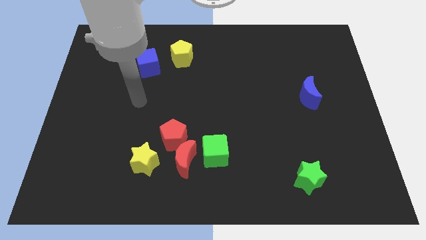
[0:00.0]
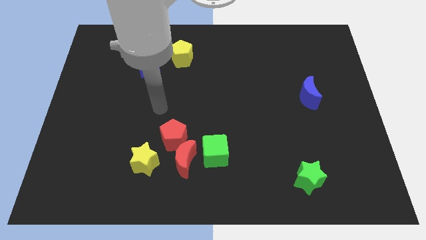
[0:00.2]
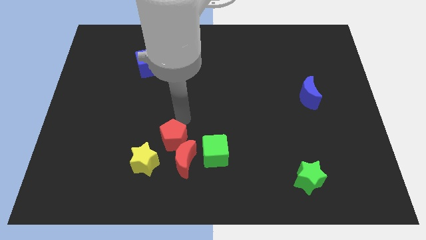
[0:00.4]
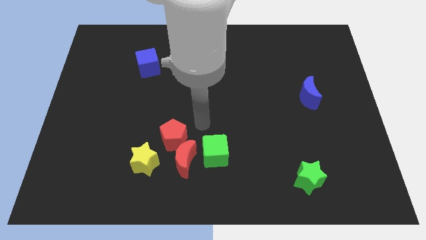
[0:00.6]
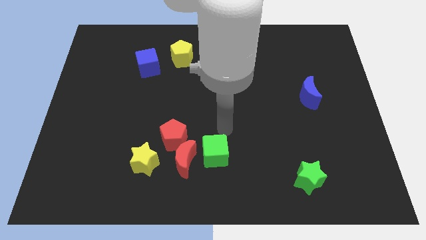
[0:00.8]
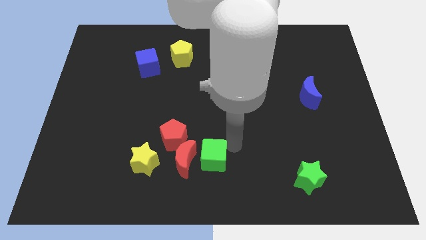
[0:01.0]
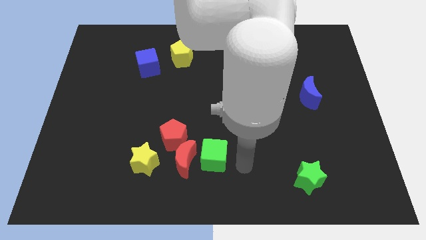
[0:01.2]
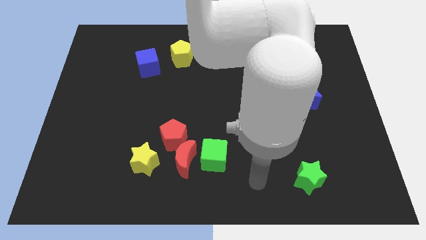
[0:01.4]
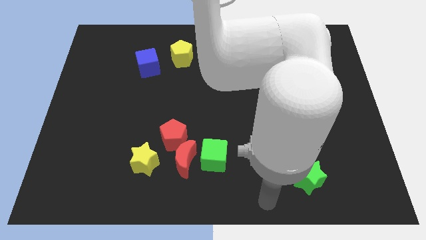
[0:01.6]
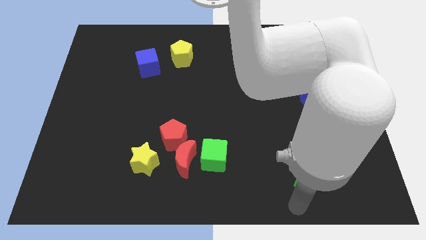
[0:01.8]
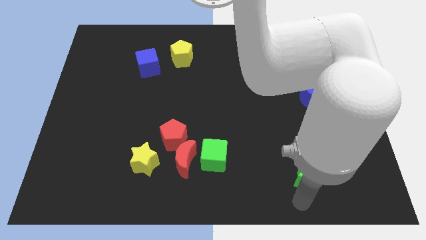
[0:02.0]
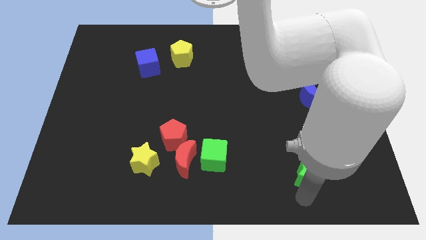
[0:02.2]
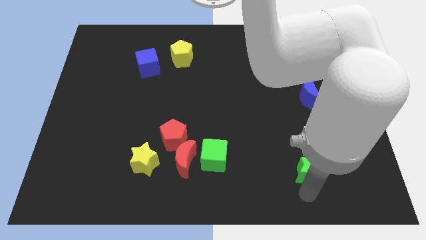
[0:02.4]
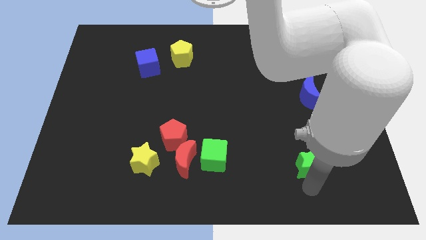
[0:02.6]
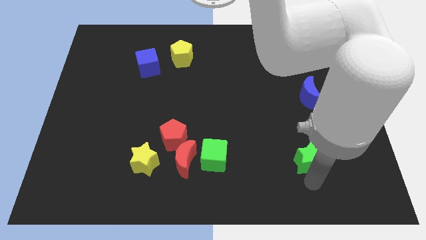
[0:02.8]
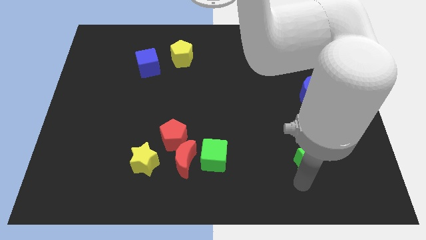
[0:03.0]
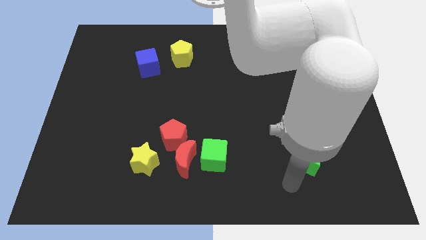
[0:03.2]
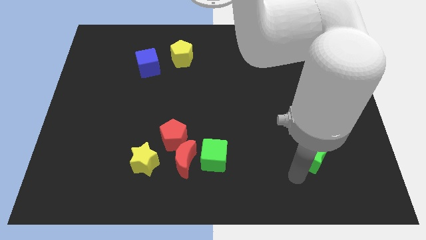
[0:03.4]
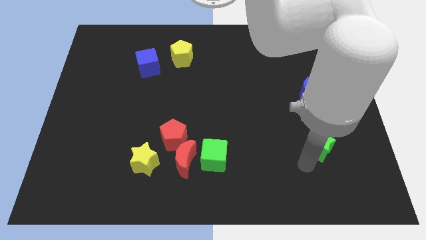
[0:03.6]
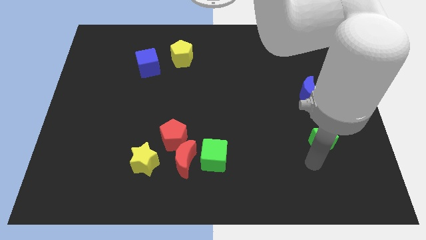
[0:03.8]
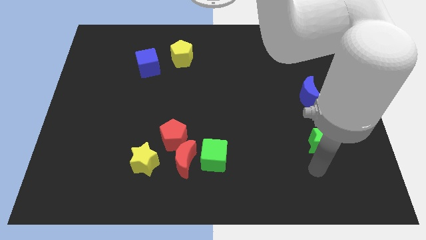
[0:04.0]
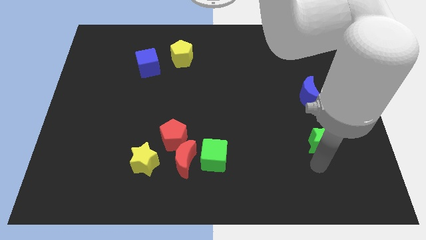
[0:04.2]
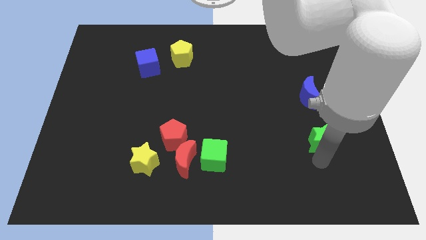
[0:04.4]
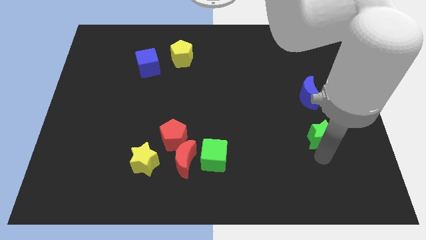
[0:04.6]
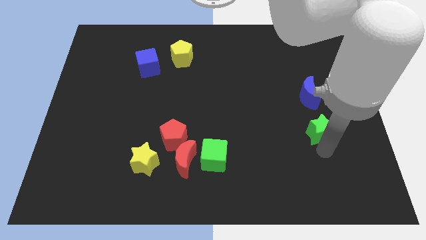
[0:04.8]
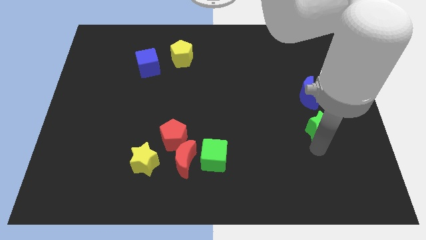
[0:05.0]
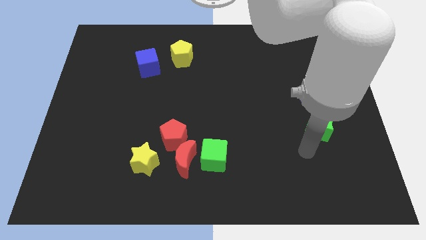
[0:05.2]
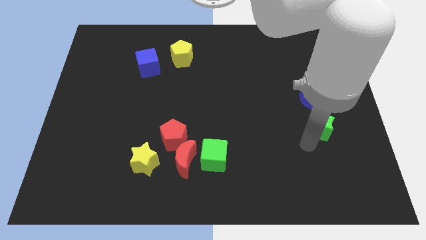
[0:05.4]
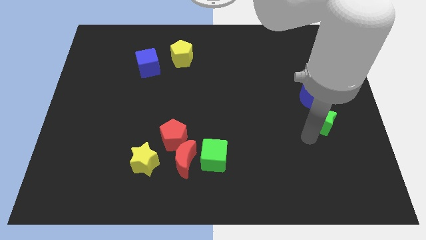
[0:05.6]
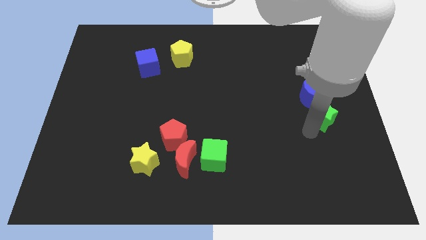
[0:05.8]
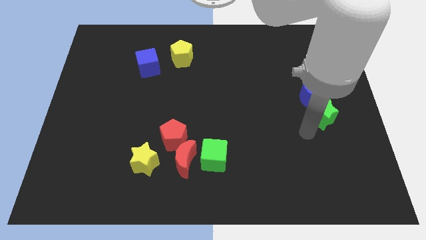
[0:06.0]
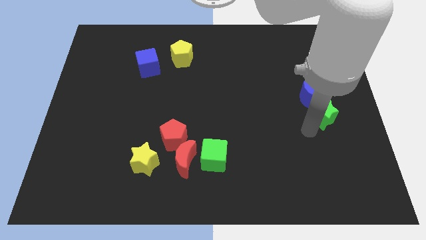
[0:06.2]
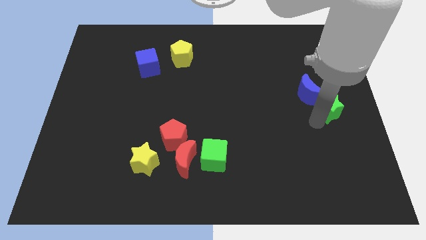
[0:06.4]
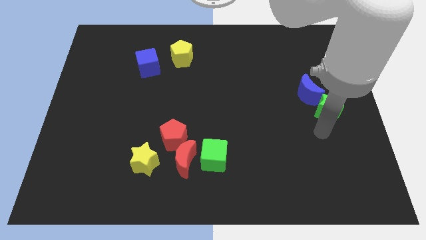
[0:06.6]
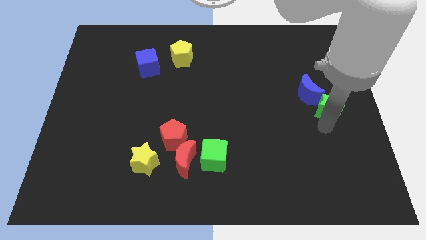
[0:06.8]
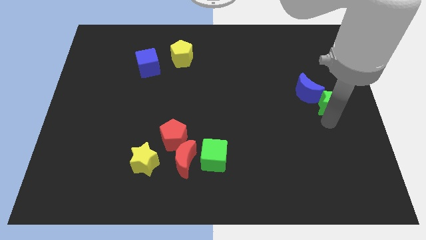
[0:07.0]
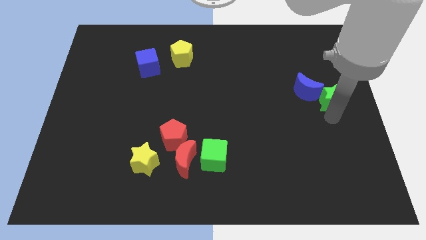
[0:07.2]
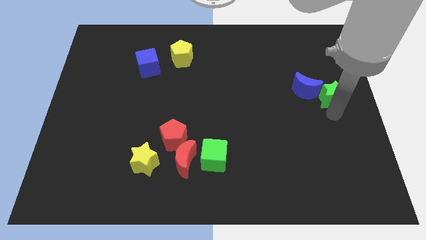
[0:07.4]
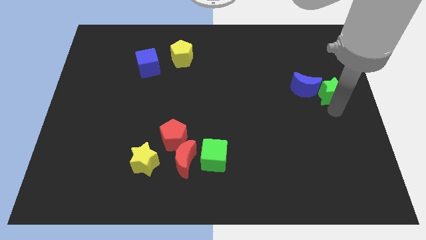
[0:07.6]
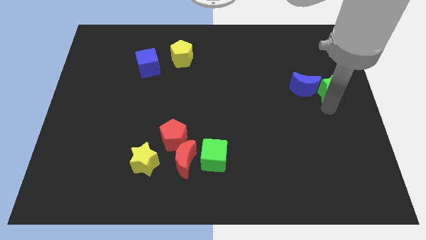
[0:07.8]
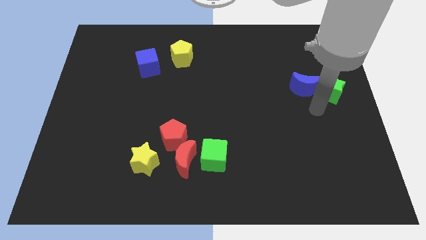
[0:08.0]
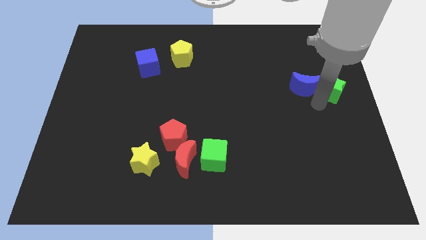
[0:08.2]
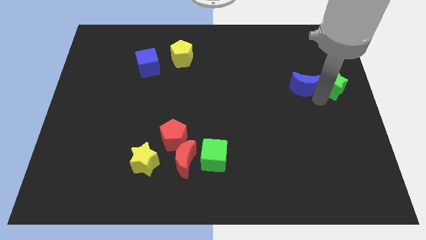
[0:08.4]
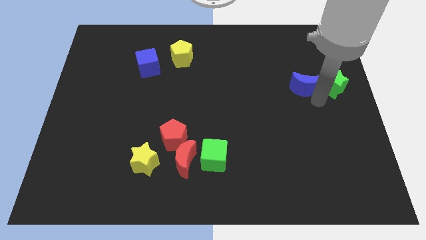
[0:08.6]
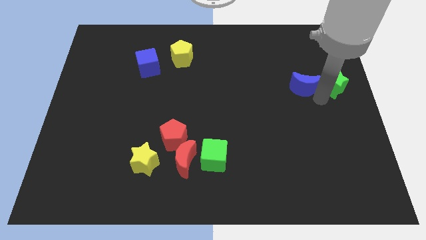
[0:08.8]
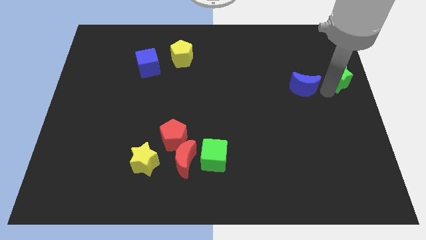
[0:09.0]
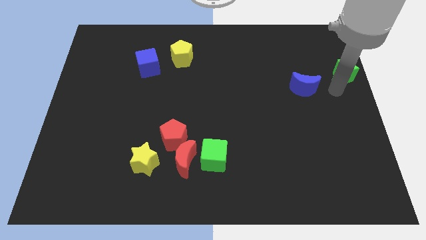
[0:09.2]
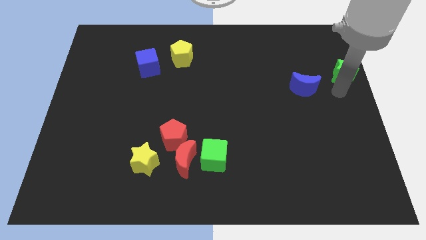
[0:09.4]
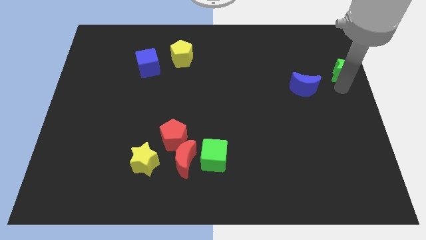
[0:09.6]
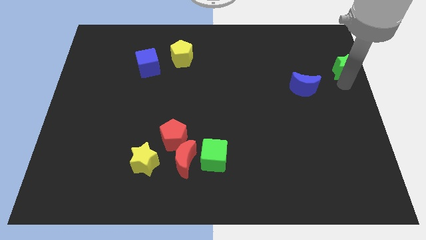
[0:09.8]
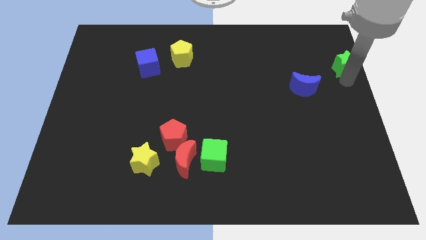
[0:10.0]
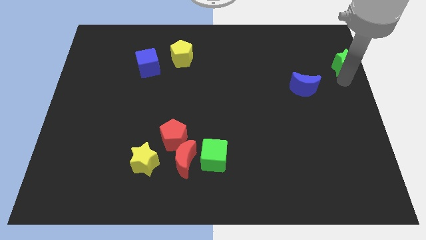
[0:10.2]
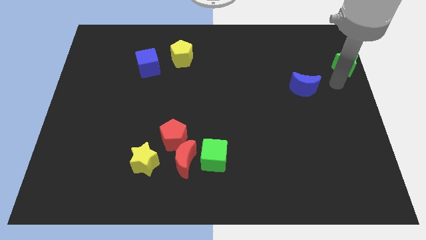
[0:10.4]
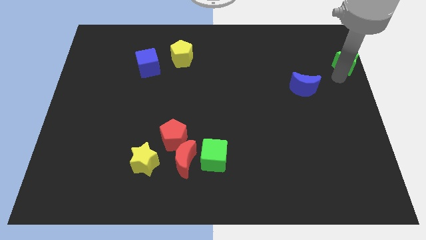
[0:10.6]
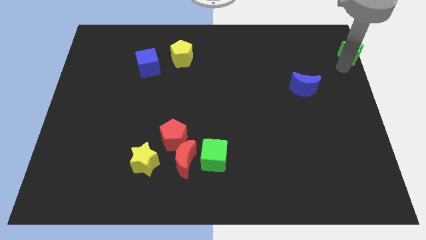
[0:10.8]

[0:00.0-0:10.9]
push the green star to the top right

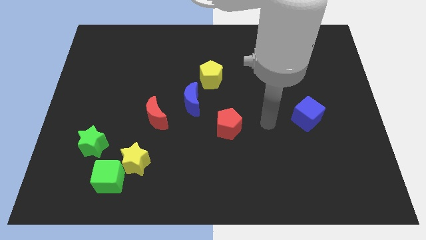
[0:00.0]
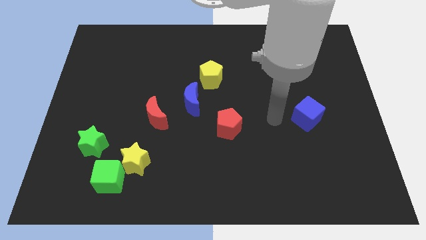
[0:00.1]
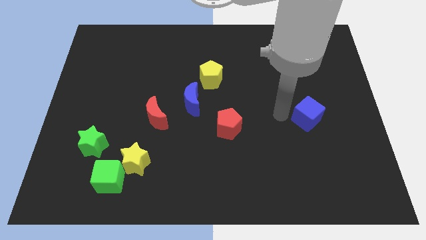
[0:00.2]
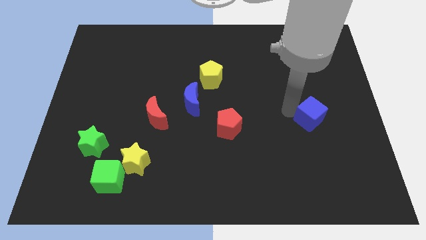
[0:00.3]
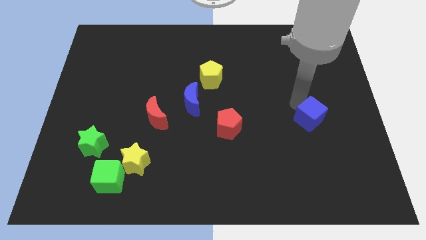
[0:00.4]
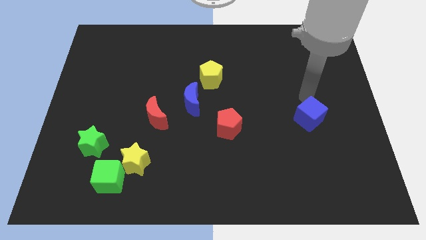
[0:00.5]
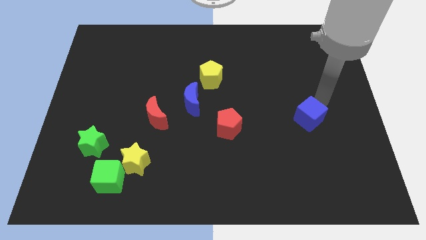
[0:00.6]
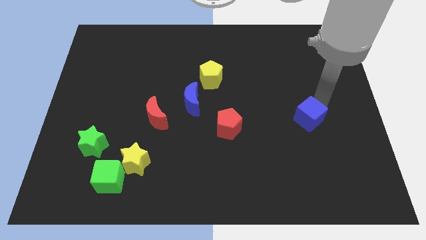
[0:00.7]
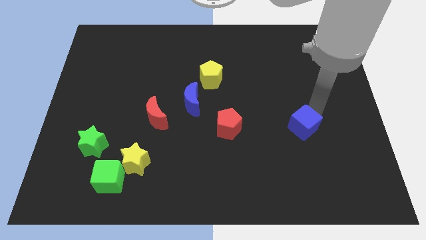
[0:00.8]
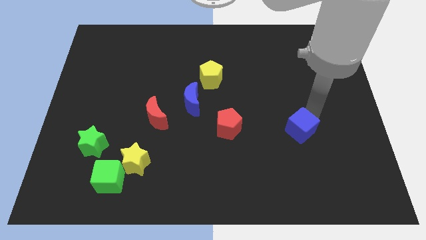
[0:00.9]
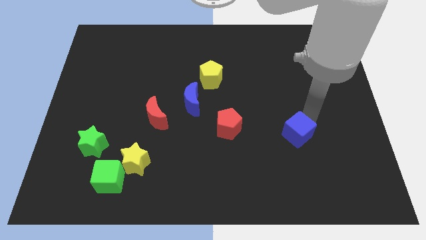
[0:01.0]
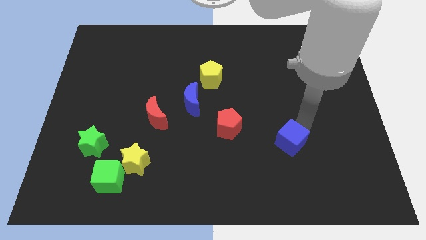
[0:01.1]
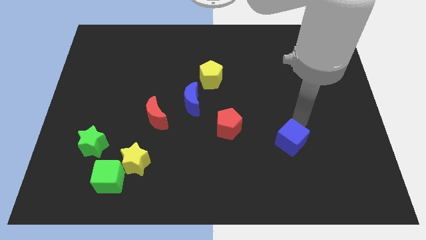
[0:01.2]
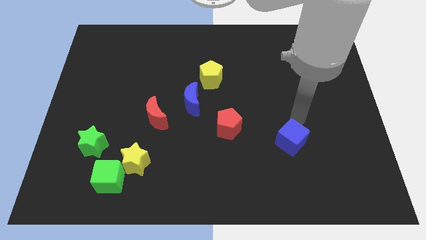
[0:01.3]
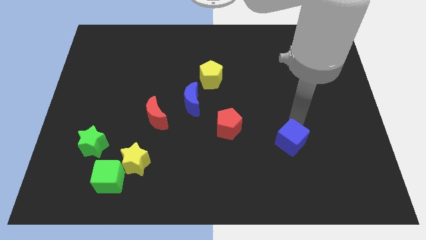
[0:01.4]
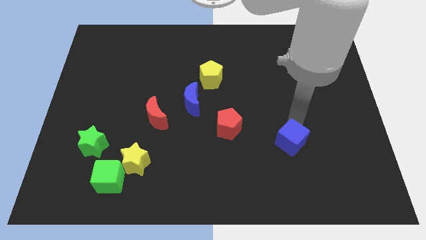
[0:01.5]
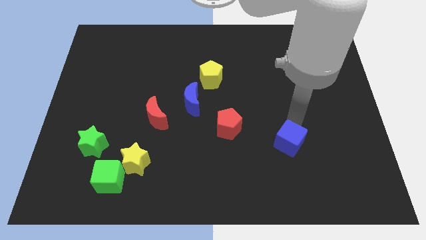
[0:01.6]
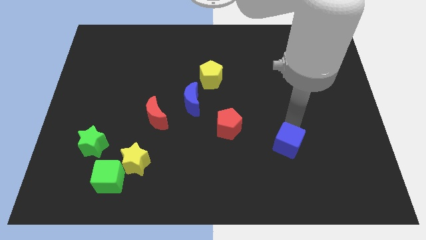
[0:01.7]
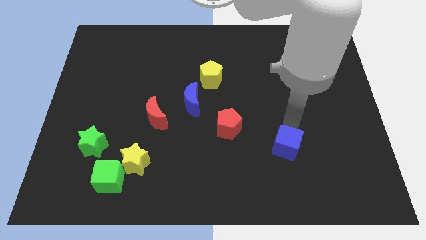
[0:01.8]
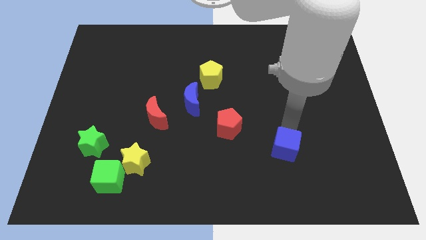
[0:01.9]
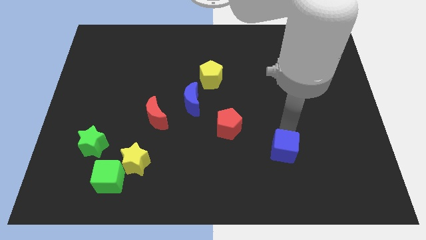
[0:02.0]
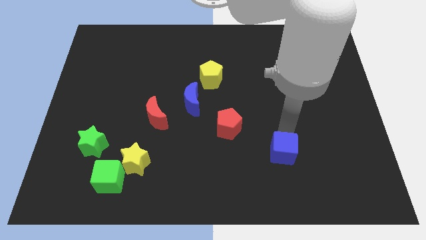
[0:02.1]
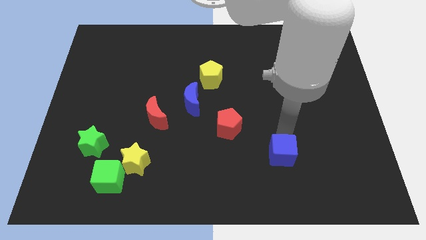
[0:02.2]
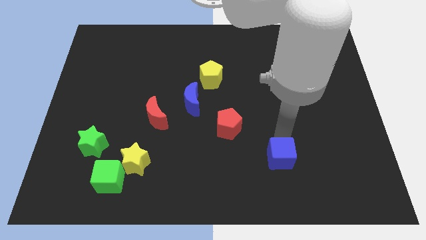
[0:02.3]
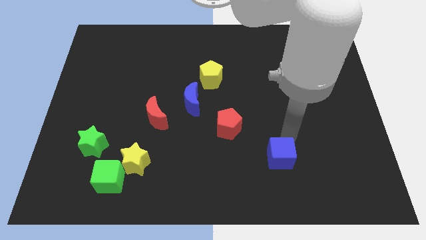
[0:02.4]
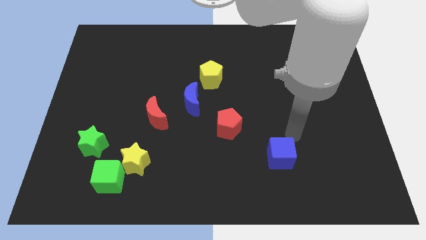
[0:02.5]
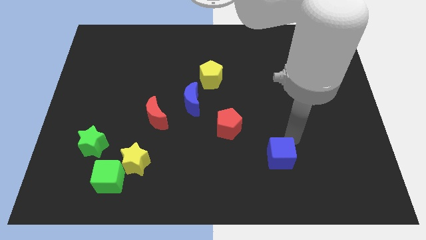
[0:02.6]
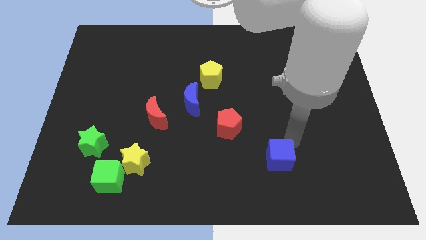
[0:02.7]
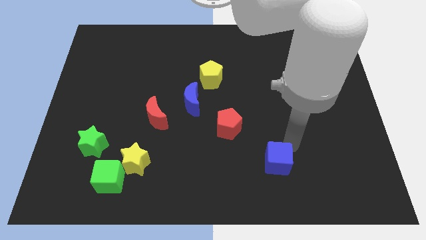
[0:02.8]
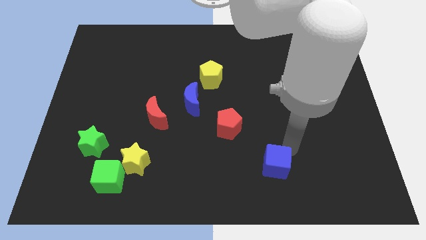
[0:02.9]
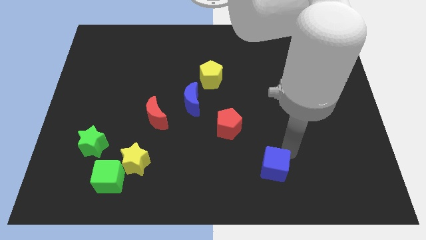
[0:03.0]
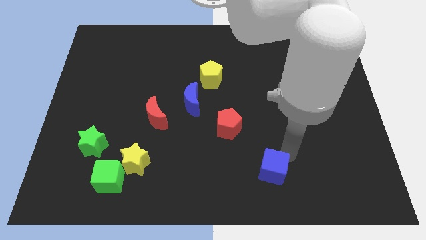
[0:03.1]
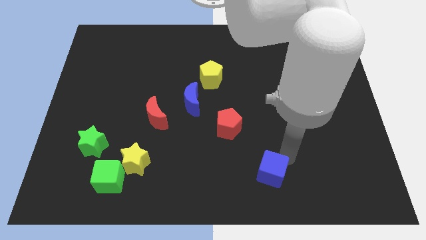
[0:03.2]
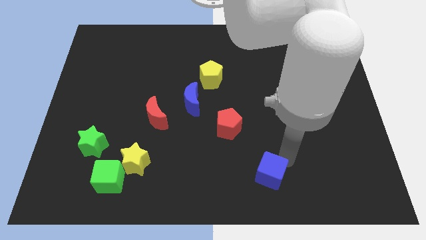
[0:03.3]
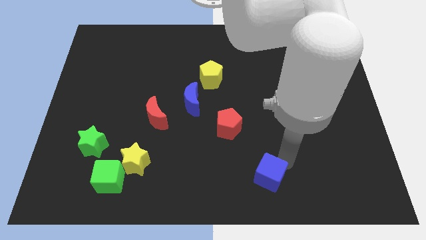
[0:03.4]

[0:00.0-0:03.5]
push the blue cube to the bottom
